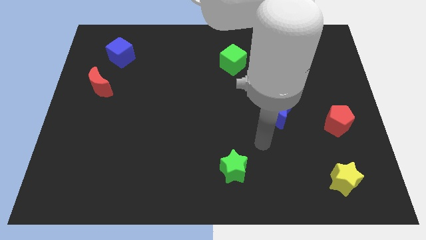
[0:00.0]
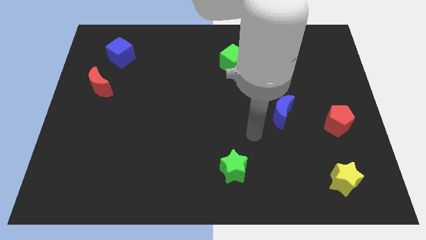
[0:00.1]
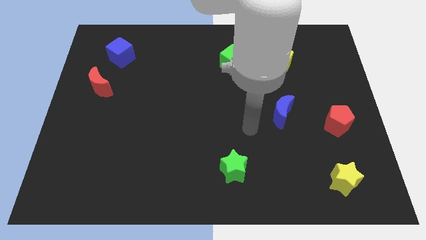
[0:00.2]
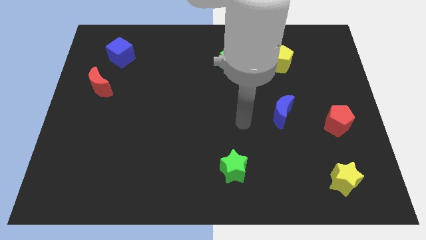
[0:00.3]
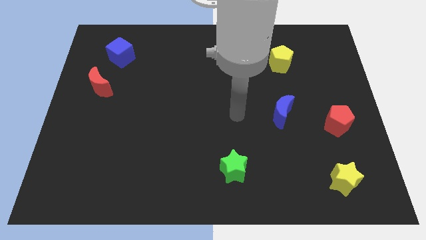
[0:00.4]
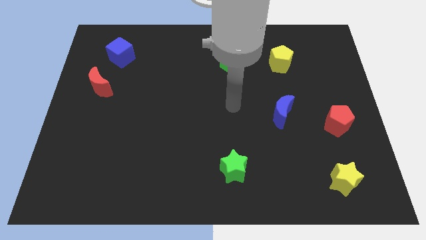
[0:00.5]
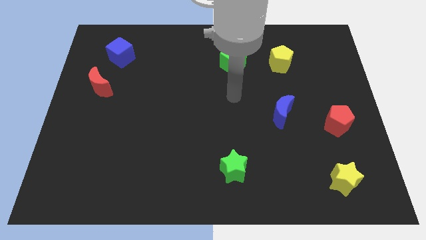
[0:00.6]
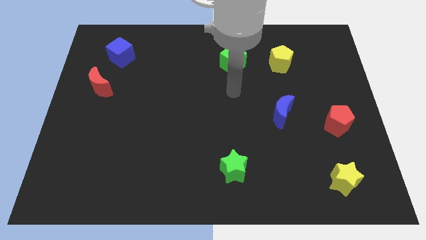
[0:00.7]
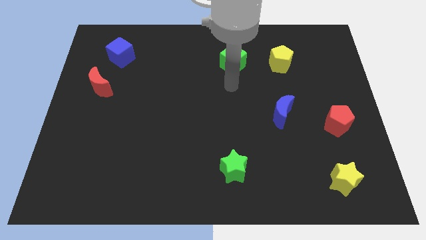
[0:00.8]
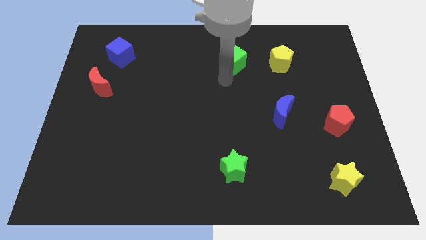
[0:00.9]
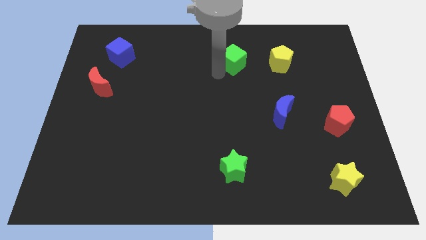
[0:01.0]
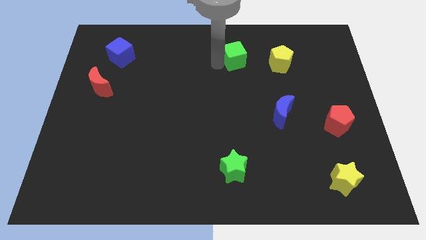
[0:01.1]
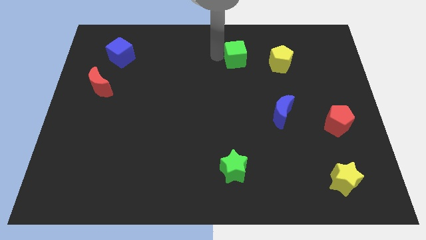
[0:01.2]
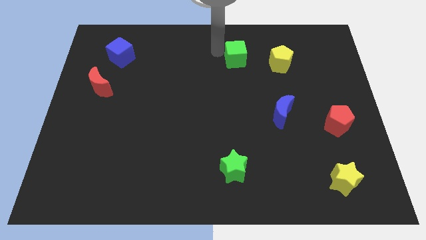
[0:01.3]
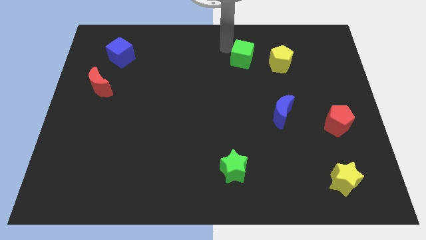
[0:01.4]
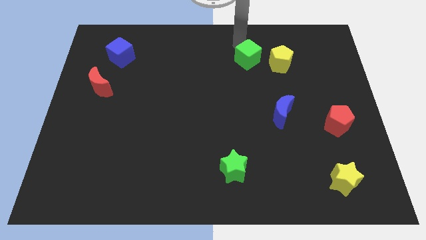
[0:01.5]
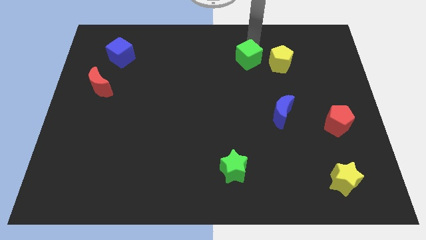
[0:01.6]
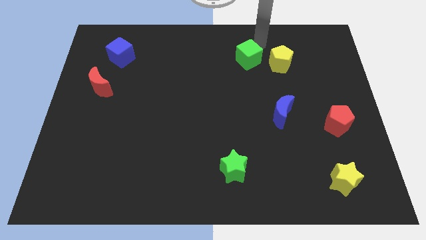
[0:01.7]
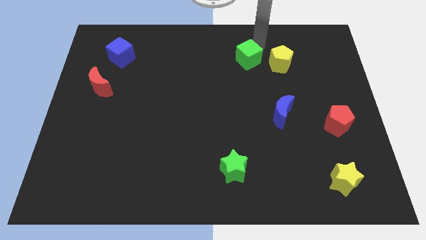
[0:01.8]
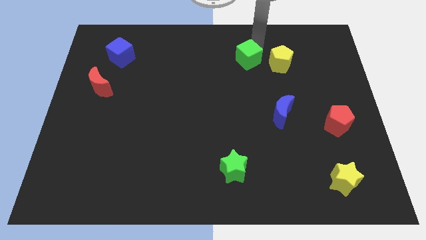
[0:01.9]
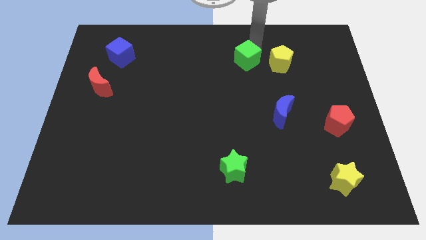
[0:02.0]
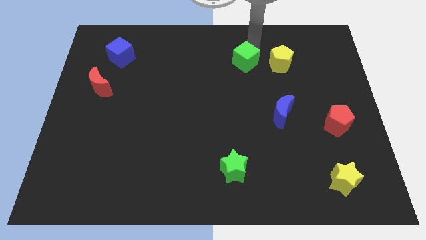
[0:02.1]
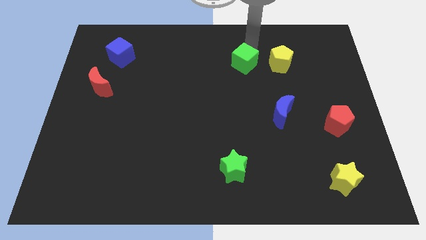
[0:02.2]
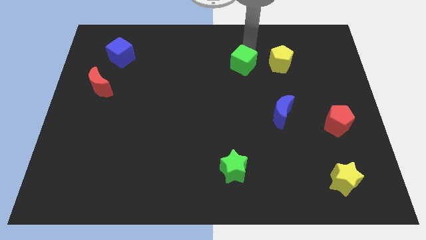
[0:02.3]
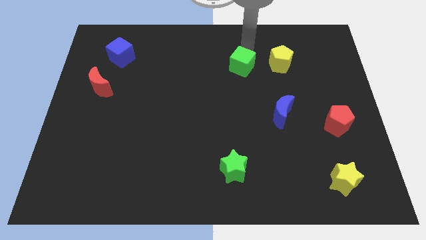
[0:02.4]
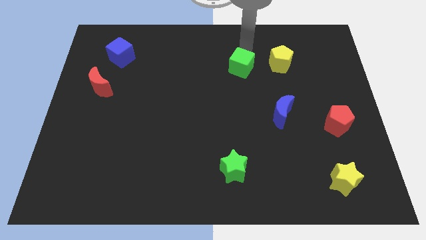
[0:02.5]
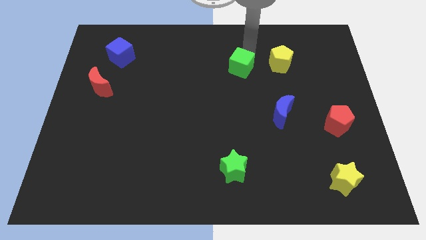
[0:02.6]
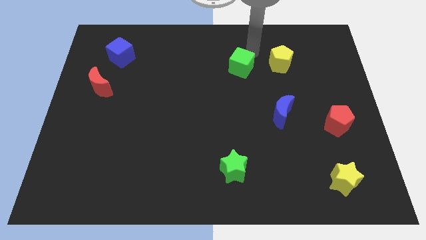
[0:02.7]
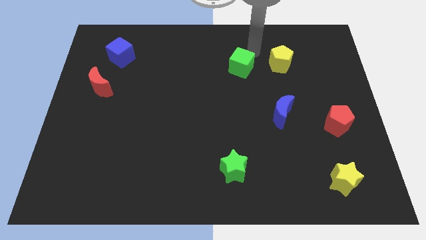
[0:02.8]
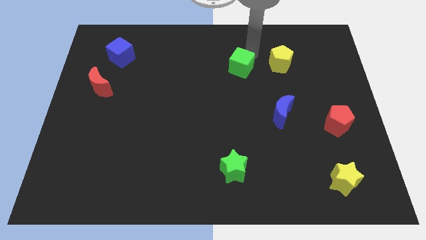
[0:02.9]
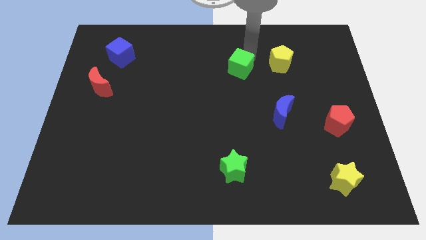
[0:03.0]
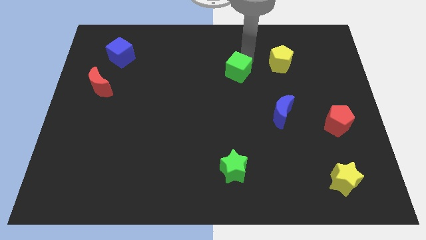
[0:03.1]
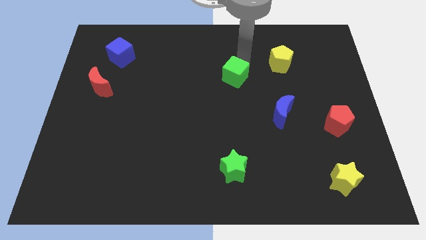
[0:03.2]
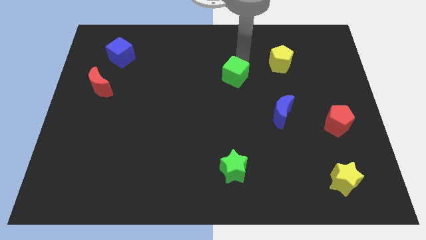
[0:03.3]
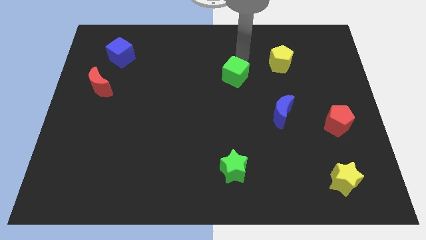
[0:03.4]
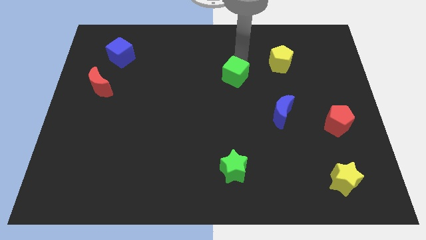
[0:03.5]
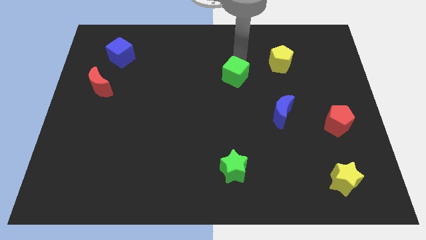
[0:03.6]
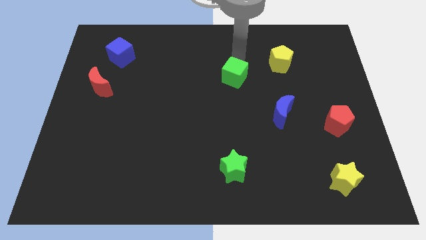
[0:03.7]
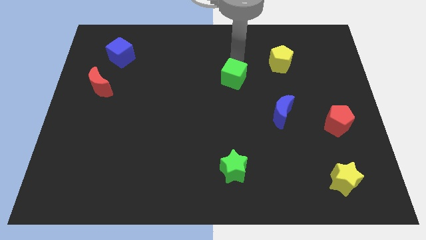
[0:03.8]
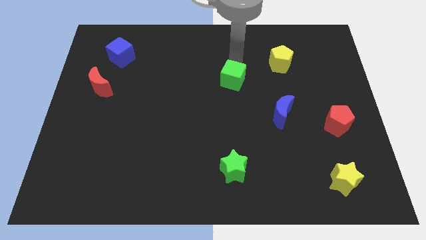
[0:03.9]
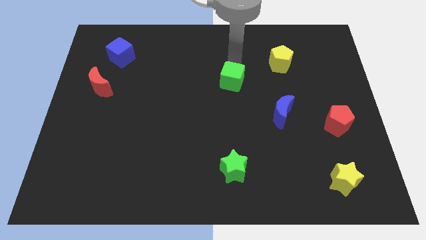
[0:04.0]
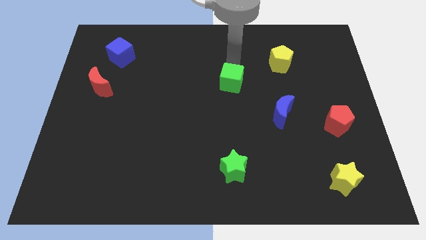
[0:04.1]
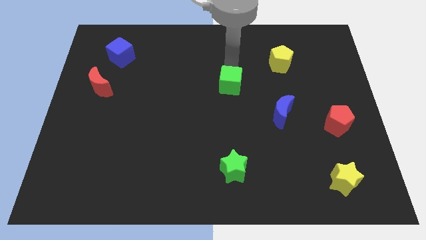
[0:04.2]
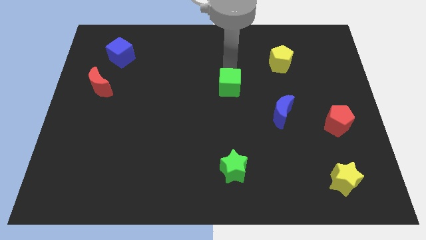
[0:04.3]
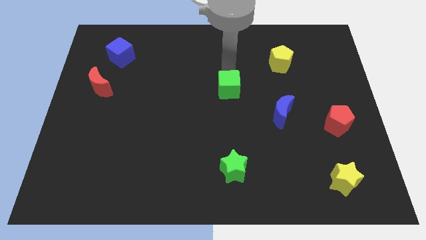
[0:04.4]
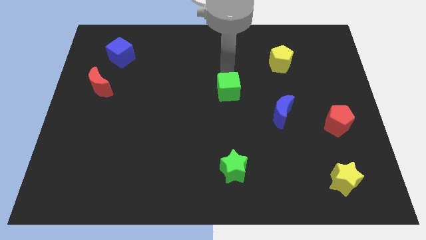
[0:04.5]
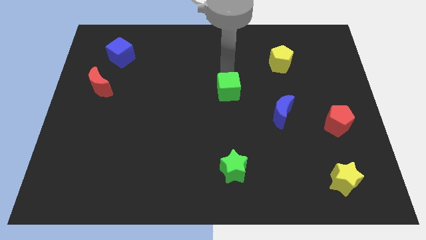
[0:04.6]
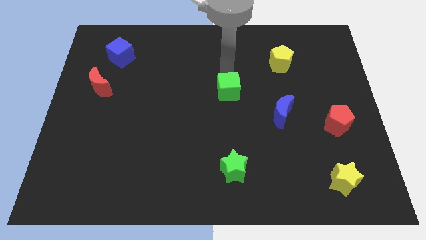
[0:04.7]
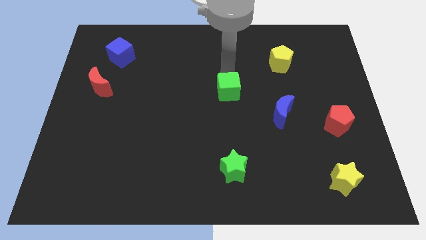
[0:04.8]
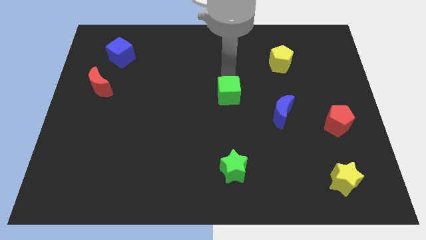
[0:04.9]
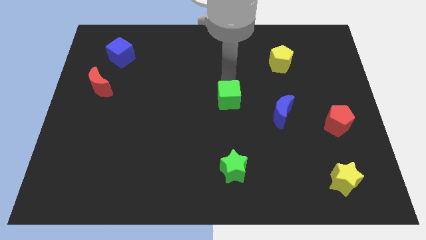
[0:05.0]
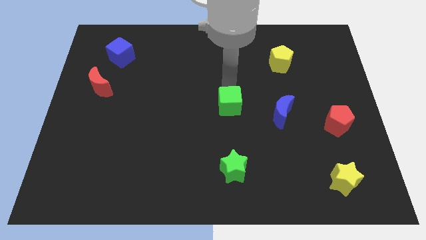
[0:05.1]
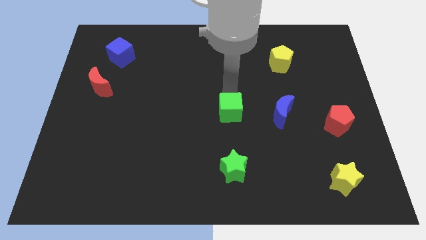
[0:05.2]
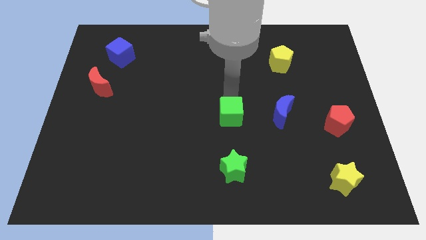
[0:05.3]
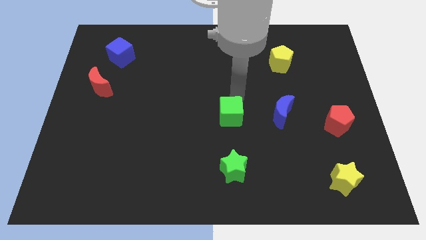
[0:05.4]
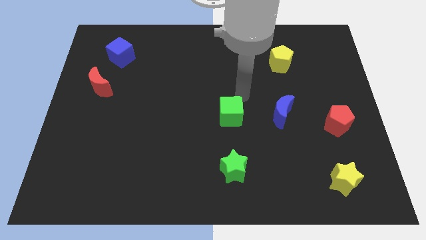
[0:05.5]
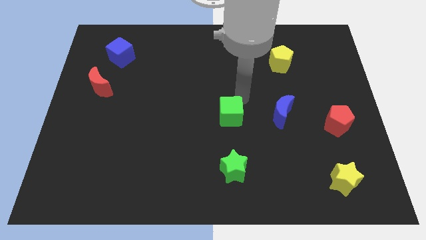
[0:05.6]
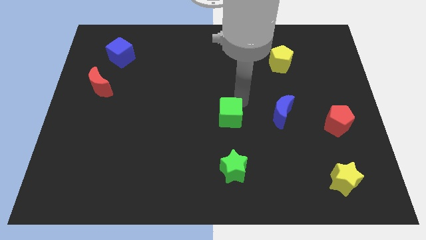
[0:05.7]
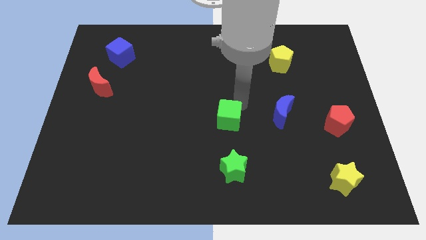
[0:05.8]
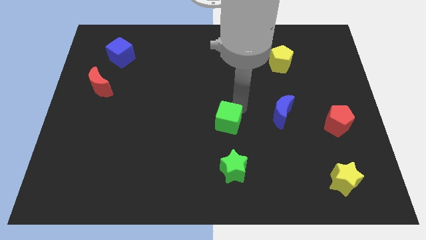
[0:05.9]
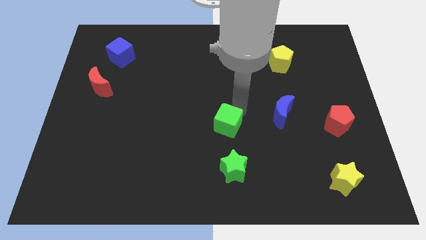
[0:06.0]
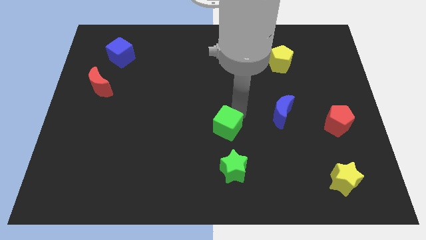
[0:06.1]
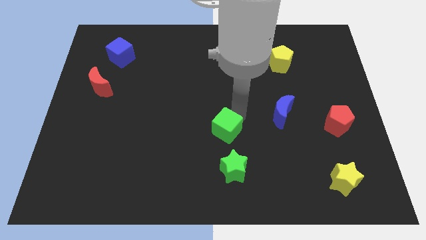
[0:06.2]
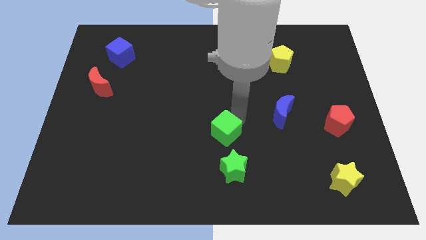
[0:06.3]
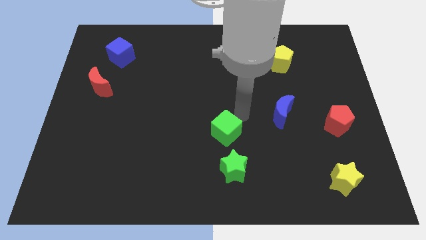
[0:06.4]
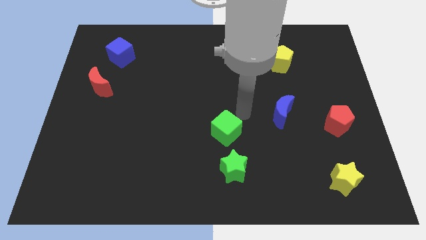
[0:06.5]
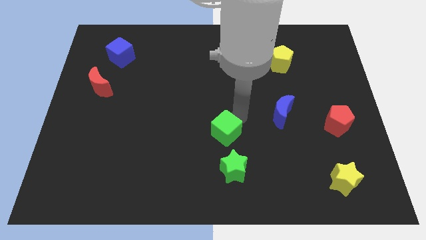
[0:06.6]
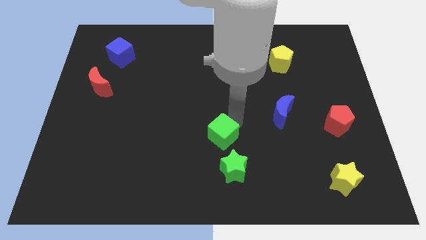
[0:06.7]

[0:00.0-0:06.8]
push the green cube to the top left of the green star

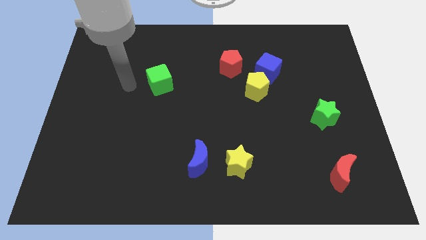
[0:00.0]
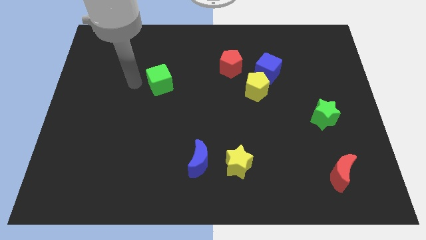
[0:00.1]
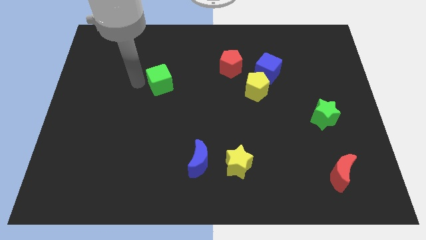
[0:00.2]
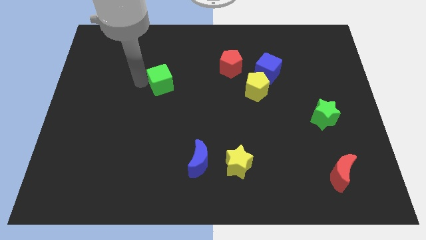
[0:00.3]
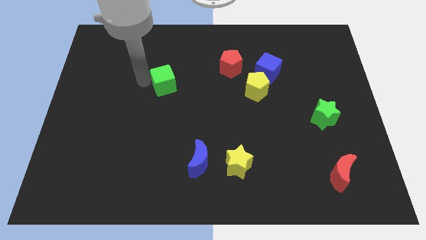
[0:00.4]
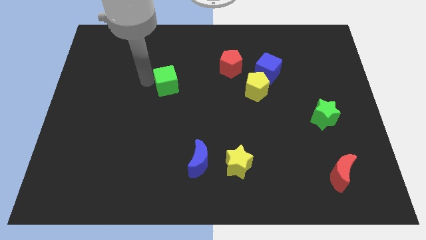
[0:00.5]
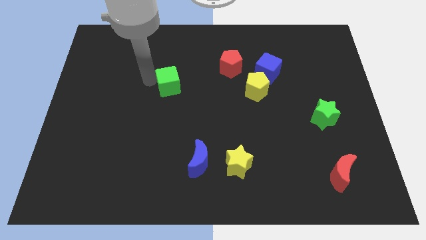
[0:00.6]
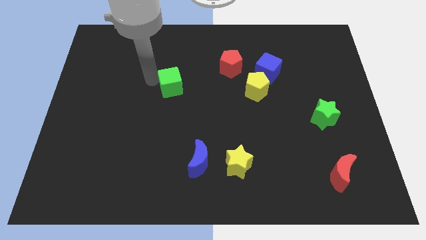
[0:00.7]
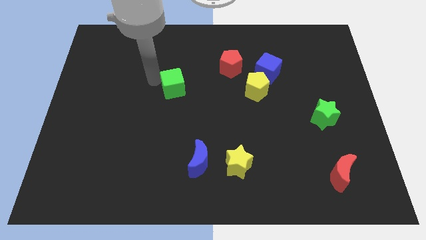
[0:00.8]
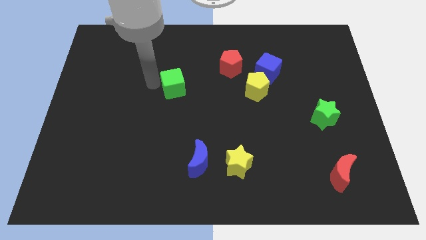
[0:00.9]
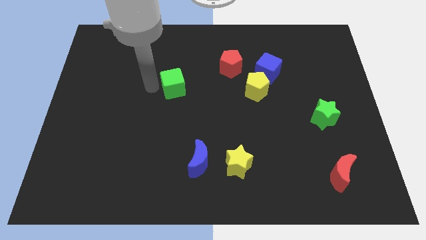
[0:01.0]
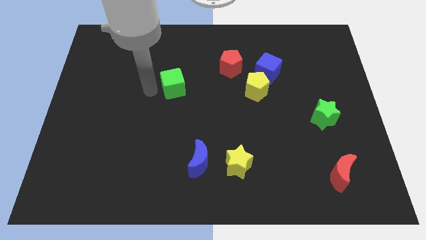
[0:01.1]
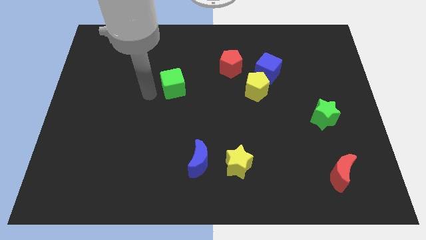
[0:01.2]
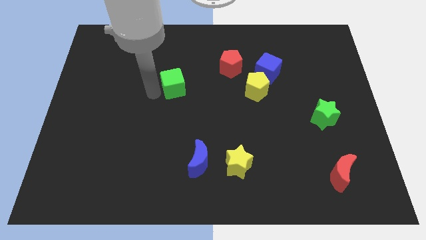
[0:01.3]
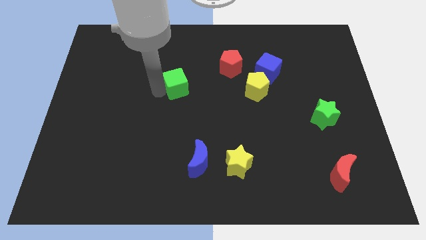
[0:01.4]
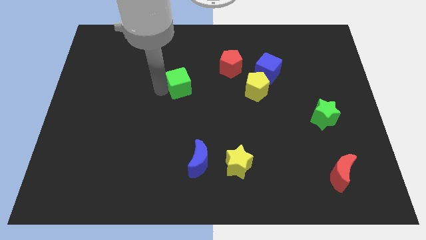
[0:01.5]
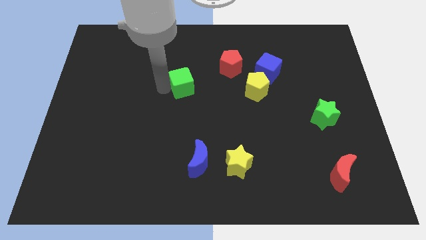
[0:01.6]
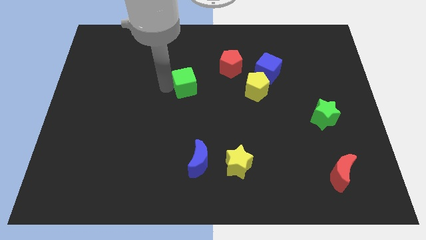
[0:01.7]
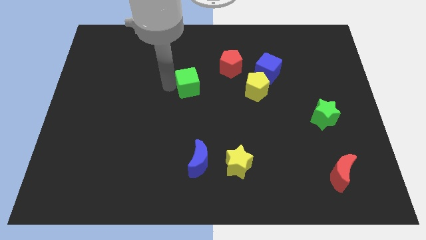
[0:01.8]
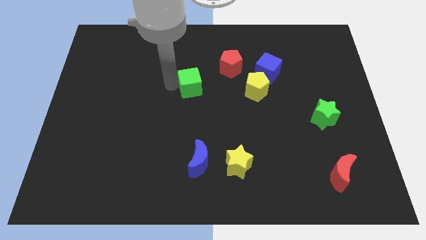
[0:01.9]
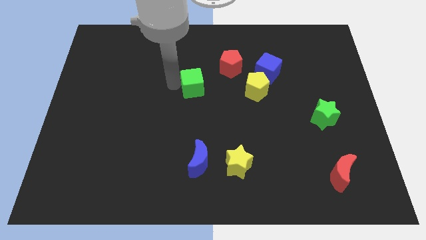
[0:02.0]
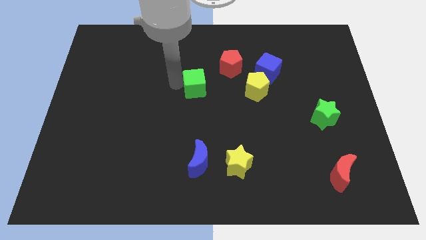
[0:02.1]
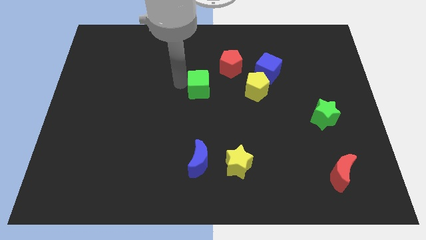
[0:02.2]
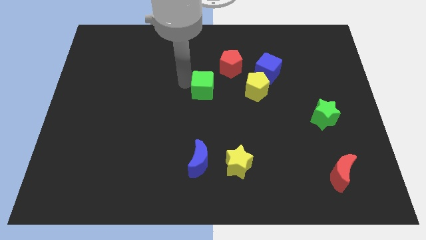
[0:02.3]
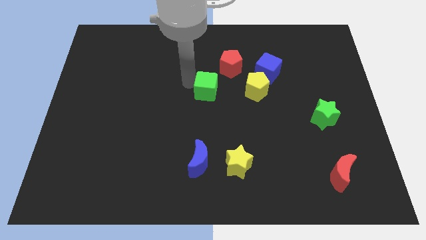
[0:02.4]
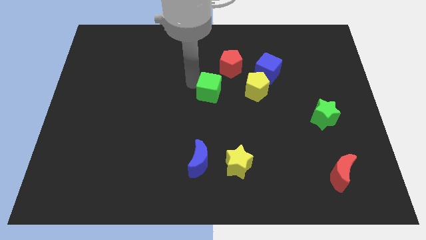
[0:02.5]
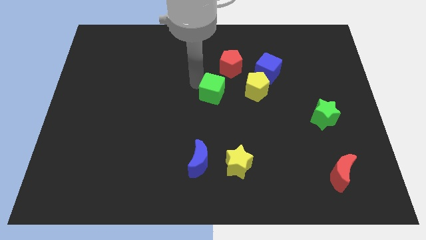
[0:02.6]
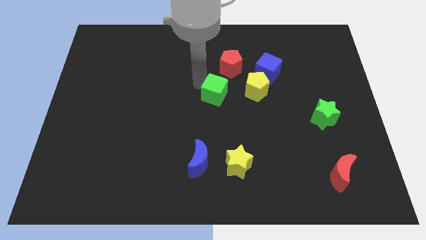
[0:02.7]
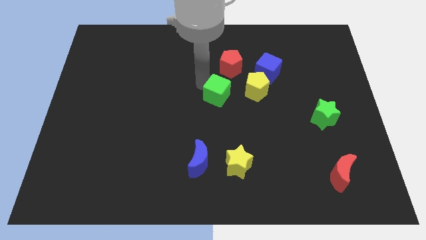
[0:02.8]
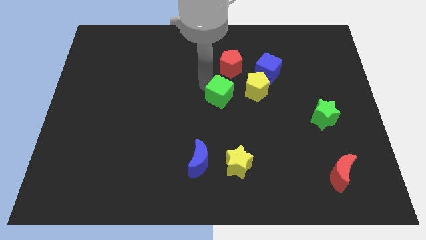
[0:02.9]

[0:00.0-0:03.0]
move the green cube to the bottom left of the yellow pentagon
